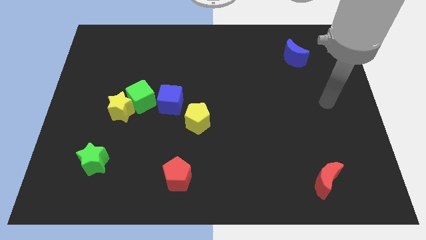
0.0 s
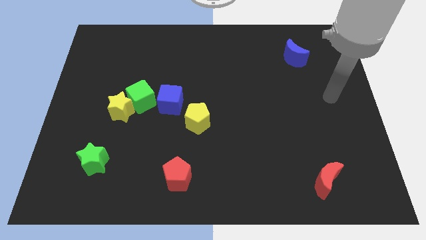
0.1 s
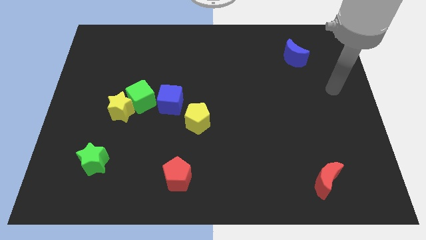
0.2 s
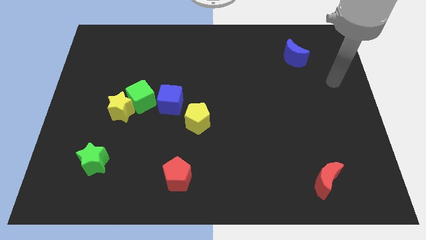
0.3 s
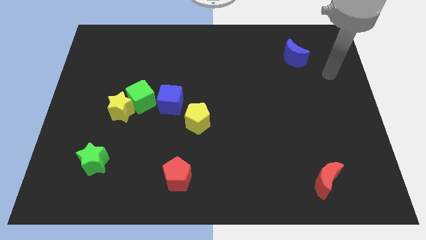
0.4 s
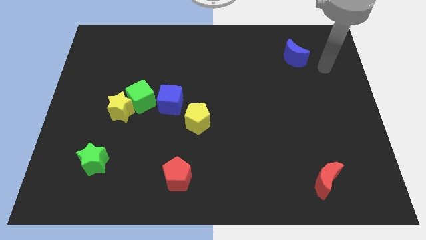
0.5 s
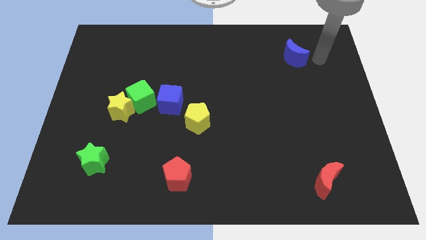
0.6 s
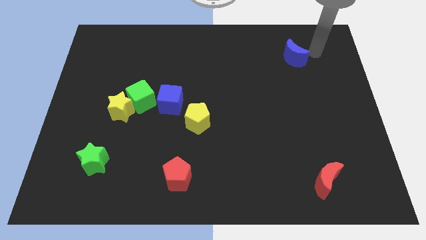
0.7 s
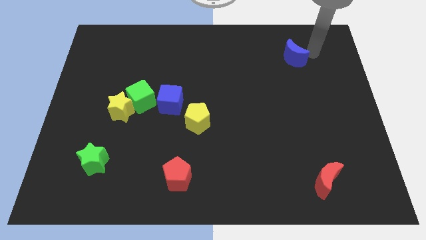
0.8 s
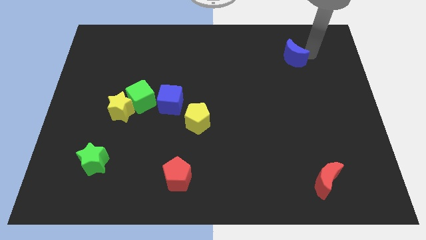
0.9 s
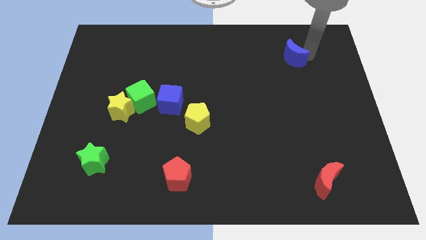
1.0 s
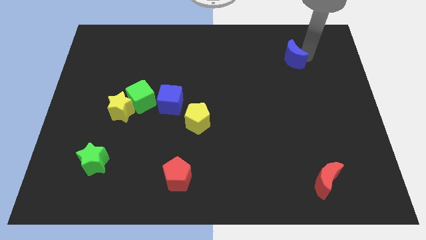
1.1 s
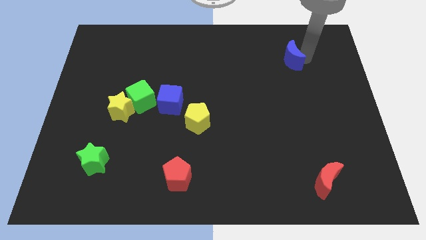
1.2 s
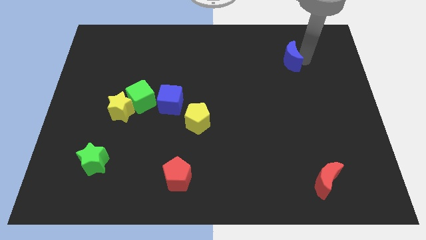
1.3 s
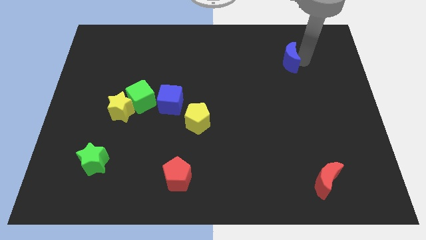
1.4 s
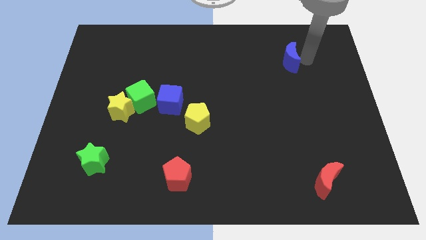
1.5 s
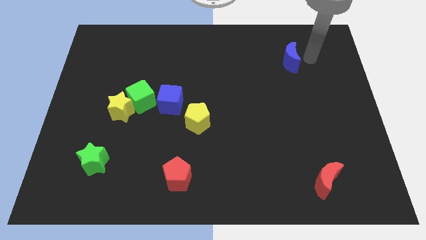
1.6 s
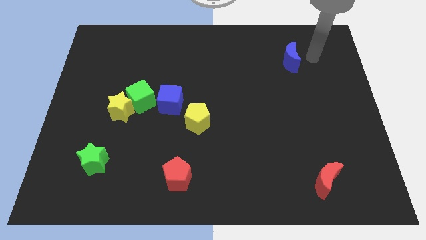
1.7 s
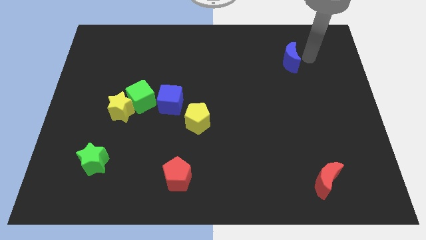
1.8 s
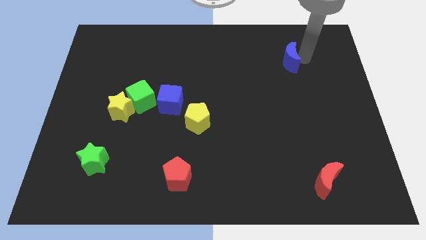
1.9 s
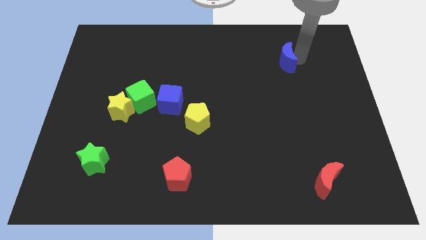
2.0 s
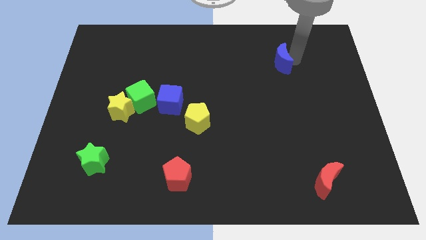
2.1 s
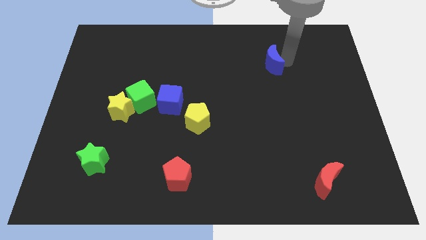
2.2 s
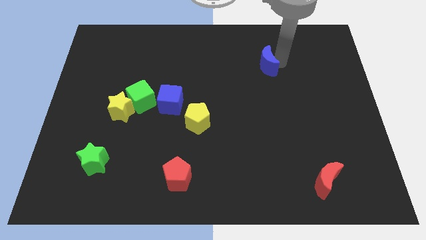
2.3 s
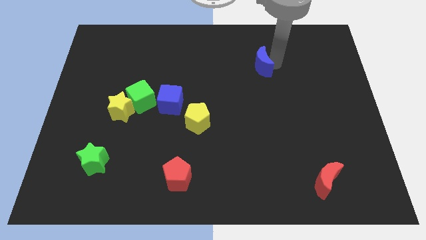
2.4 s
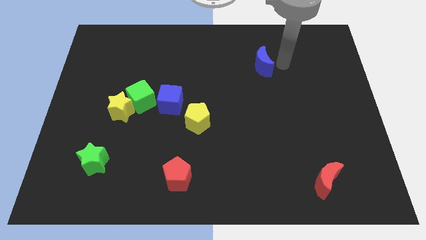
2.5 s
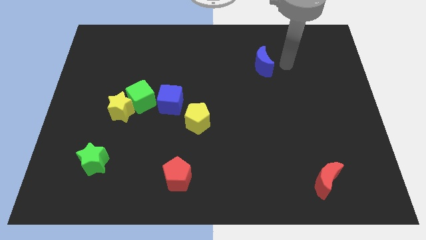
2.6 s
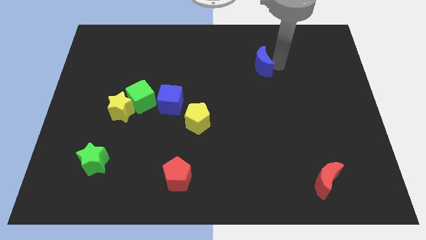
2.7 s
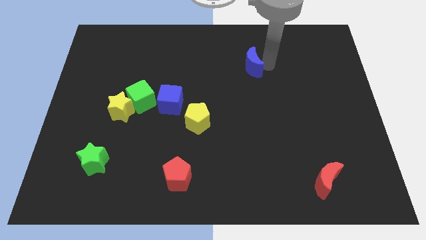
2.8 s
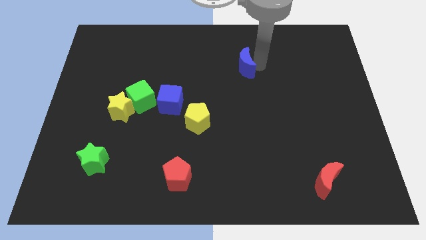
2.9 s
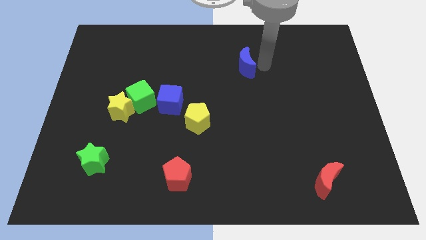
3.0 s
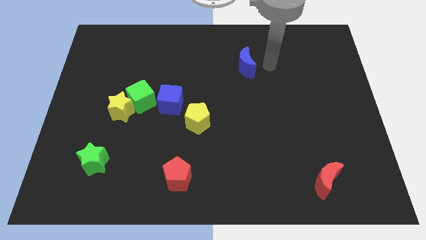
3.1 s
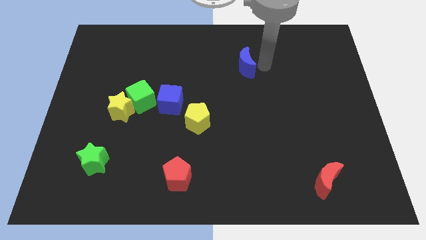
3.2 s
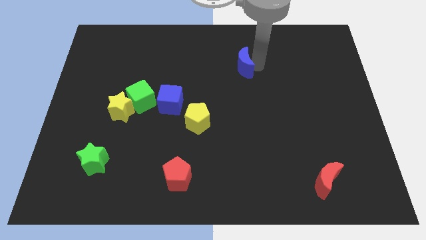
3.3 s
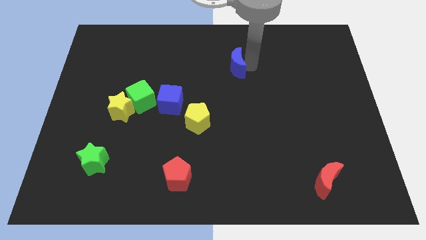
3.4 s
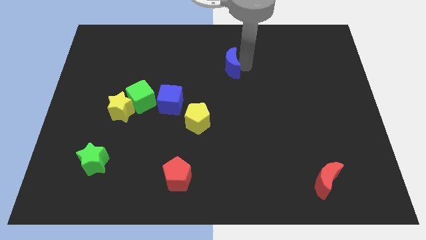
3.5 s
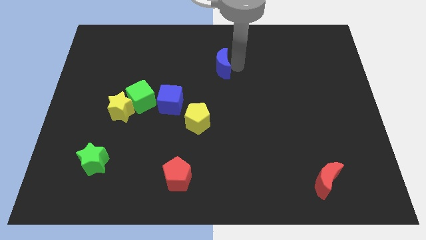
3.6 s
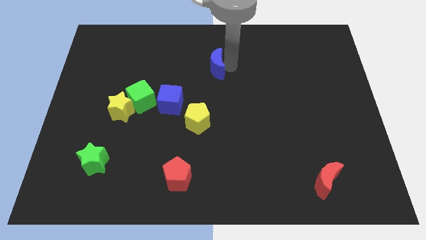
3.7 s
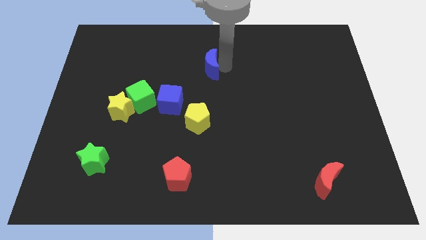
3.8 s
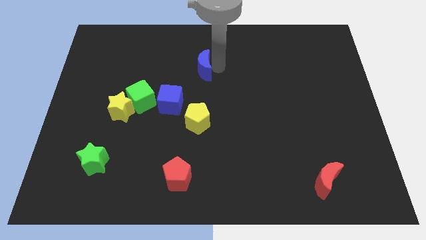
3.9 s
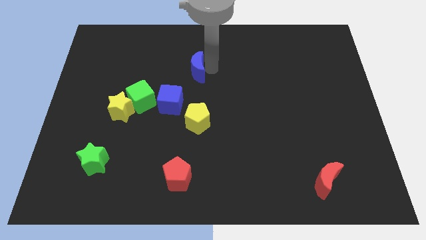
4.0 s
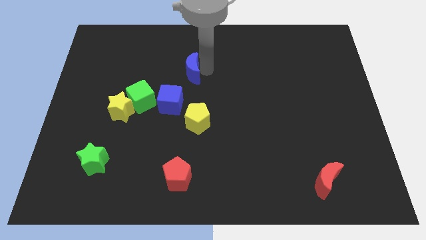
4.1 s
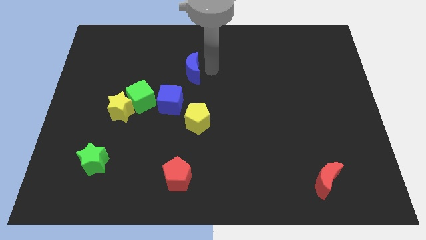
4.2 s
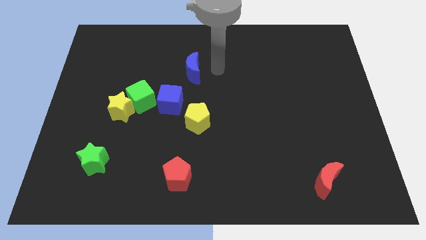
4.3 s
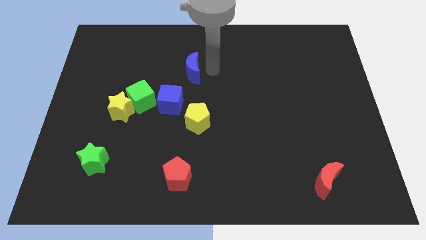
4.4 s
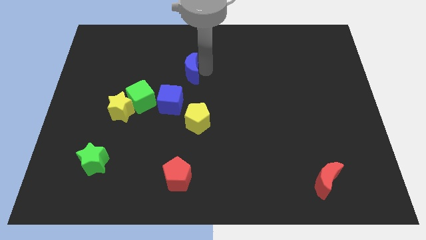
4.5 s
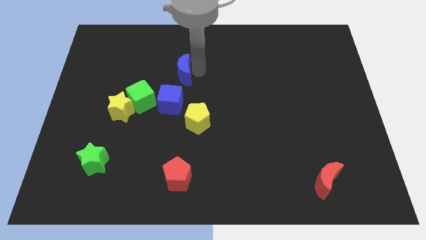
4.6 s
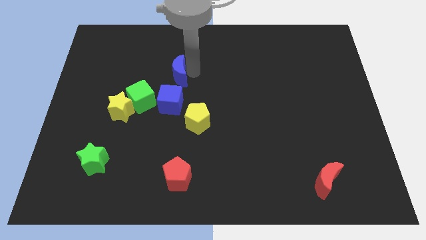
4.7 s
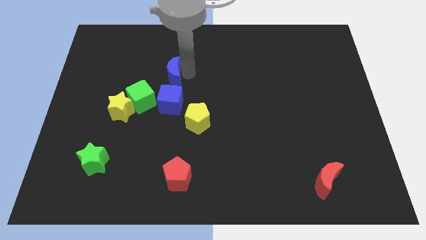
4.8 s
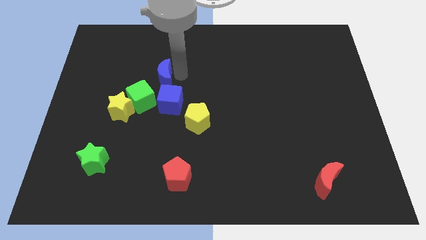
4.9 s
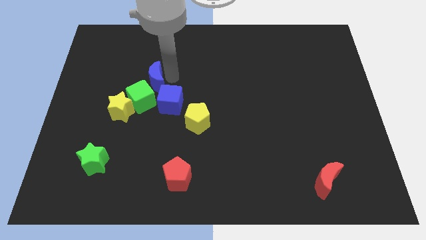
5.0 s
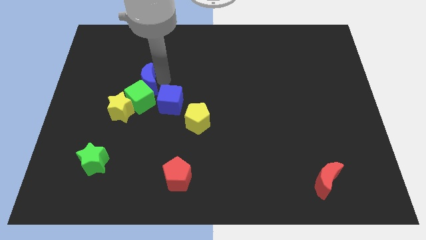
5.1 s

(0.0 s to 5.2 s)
move the blue moon to the top left side of the green cube

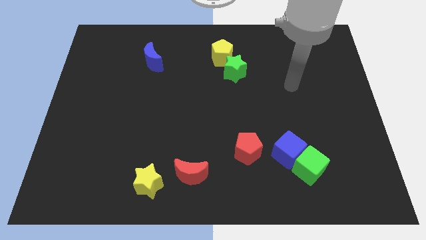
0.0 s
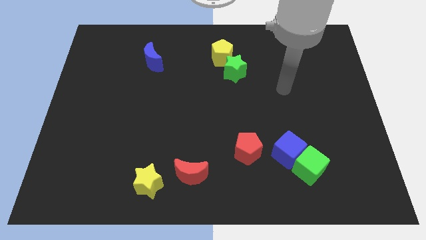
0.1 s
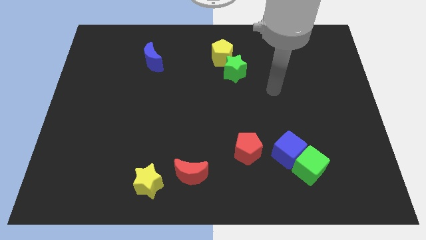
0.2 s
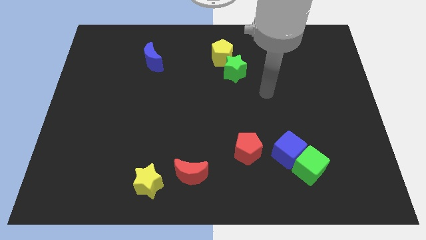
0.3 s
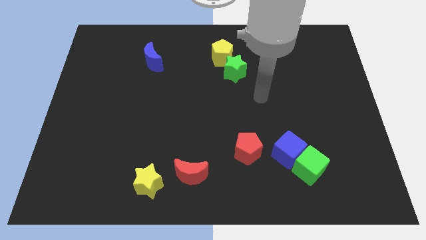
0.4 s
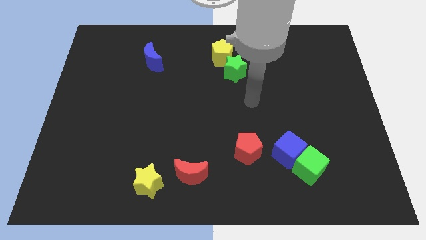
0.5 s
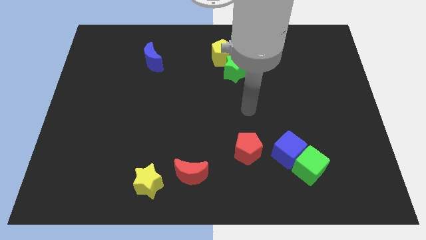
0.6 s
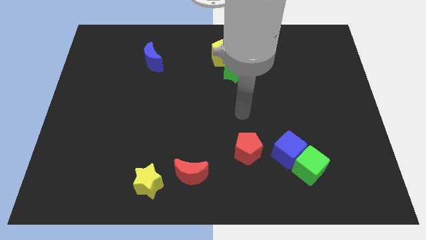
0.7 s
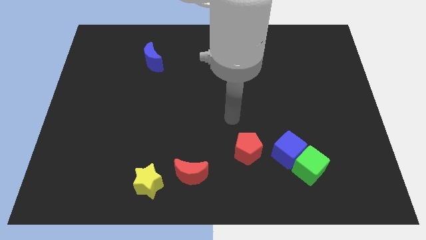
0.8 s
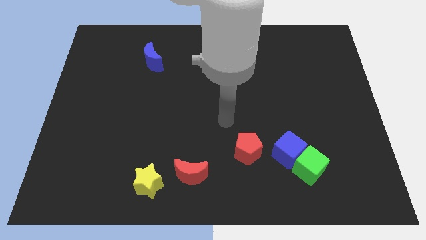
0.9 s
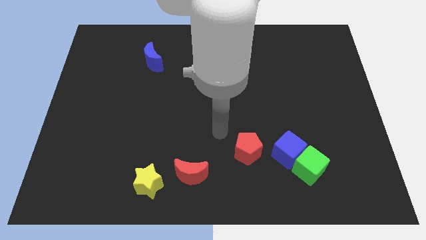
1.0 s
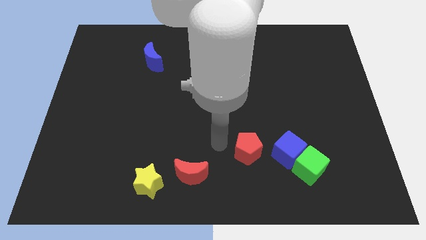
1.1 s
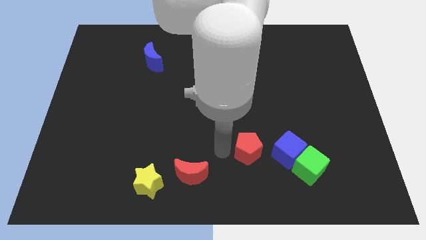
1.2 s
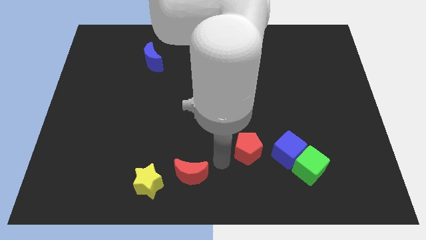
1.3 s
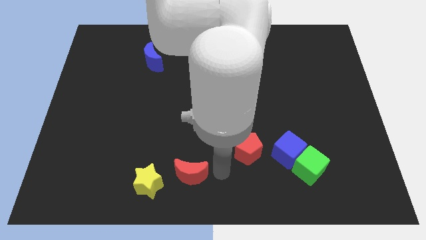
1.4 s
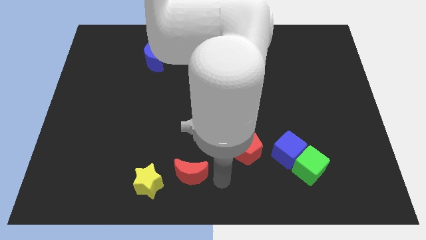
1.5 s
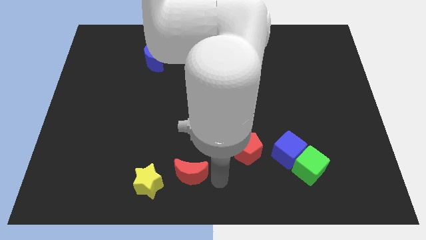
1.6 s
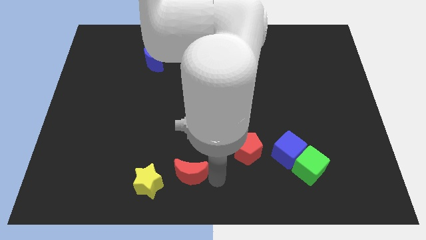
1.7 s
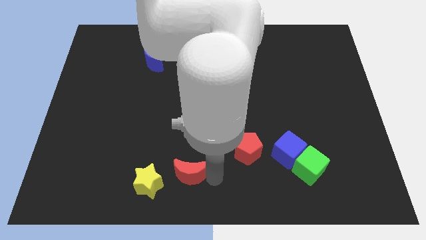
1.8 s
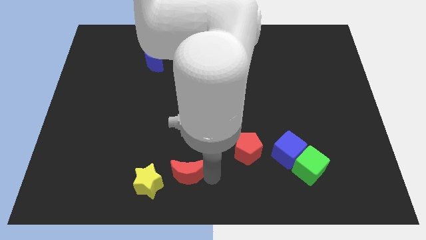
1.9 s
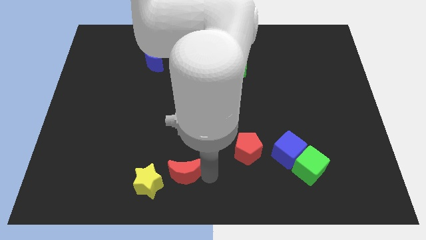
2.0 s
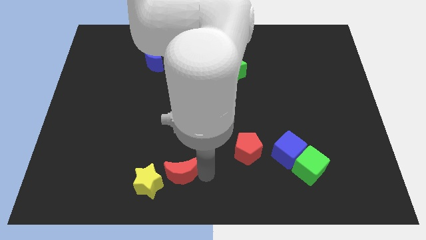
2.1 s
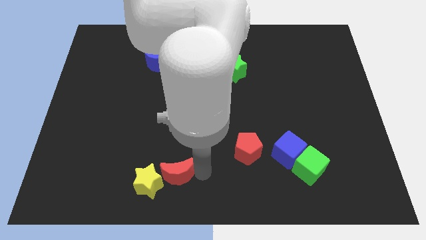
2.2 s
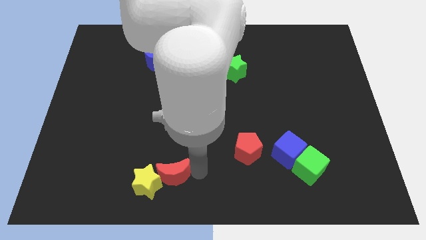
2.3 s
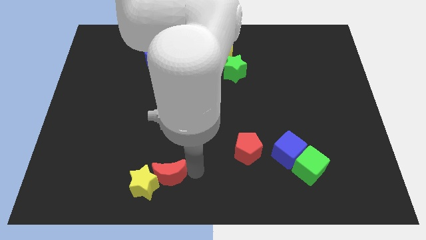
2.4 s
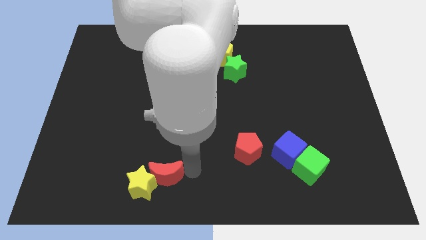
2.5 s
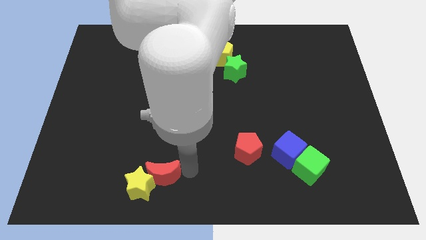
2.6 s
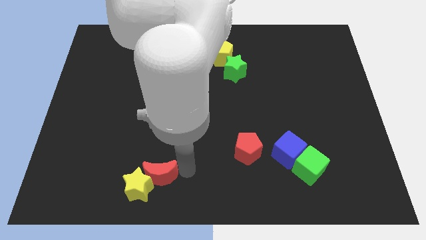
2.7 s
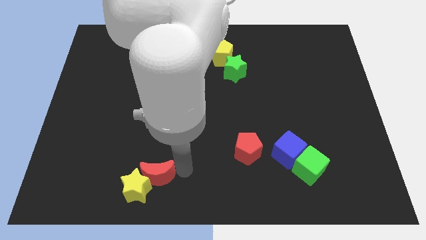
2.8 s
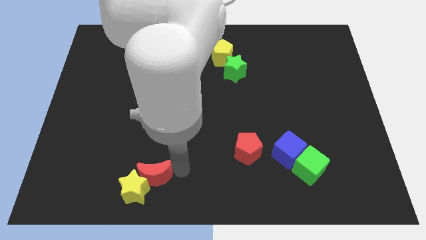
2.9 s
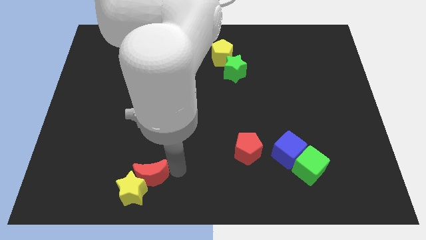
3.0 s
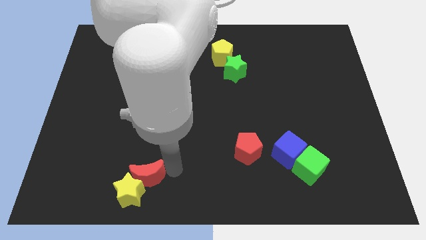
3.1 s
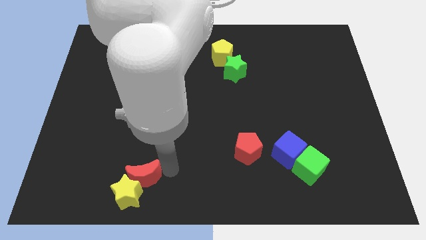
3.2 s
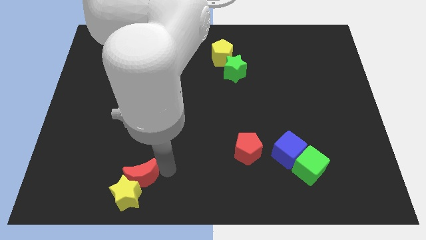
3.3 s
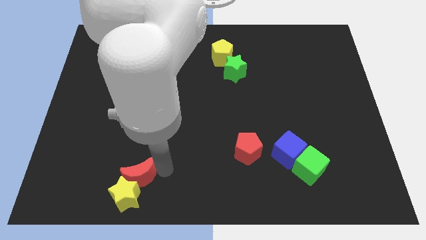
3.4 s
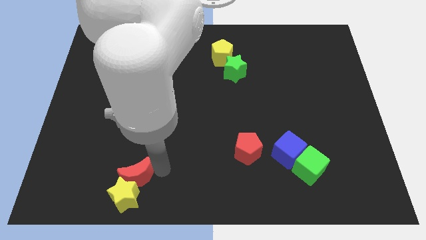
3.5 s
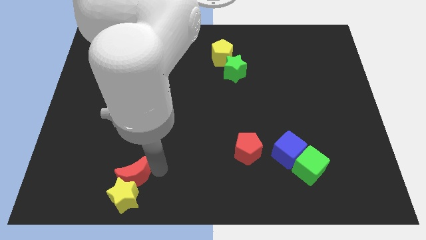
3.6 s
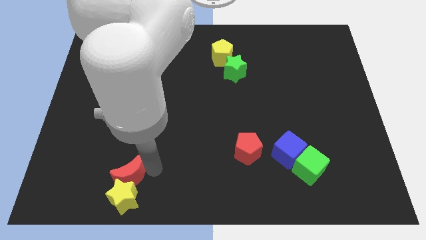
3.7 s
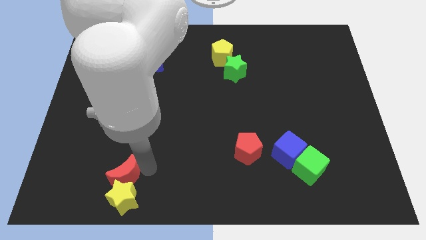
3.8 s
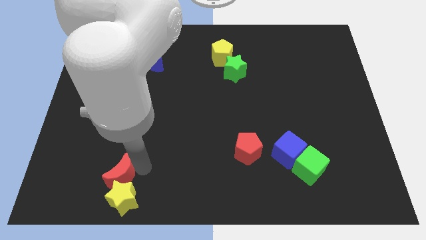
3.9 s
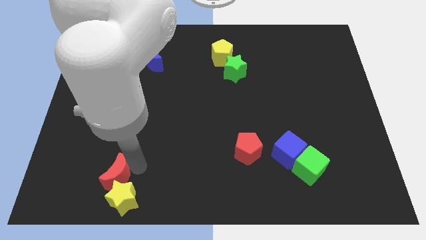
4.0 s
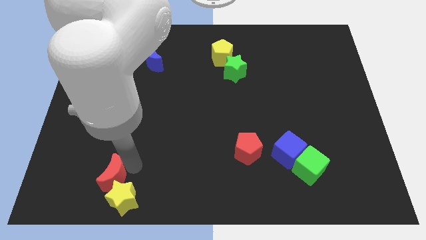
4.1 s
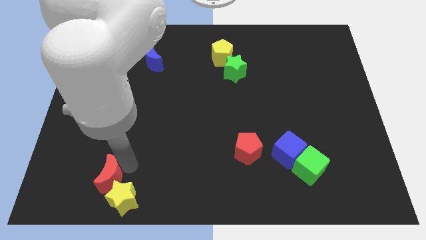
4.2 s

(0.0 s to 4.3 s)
put the red moon left of the yellow star
